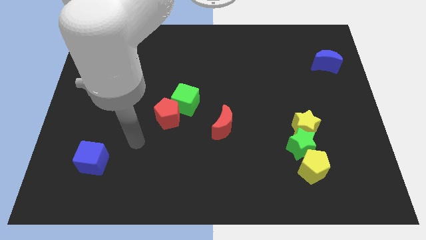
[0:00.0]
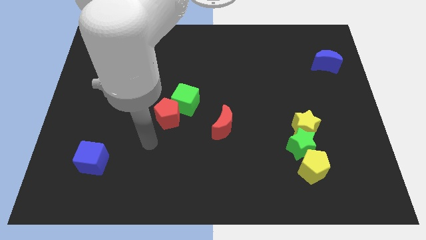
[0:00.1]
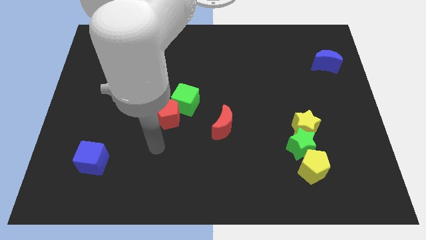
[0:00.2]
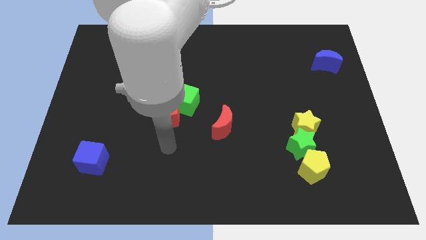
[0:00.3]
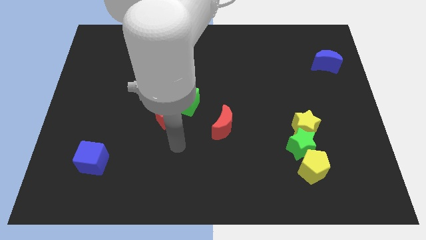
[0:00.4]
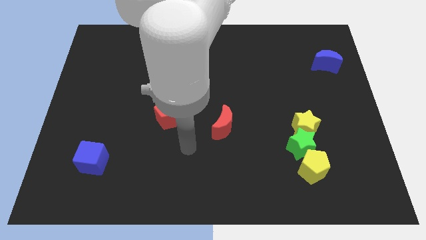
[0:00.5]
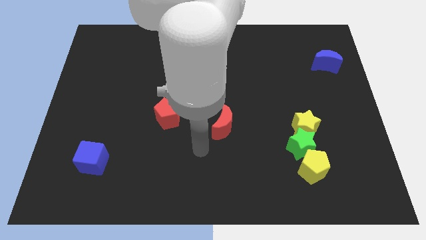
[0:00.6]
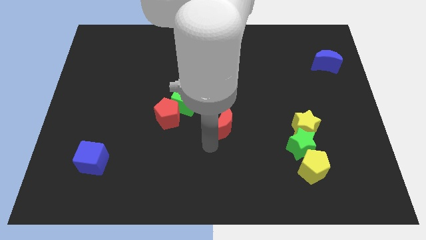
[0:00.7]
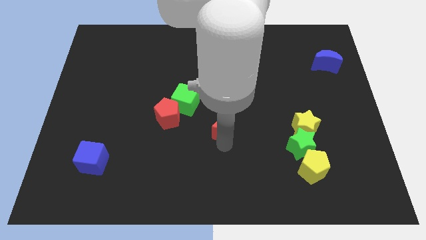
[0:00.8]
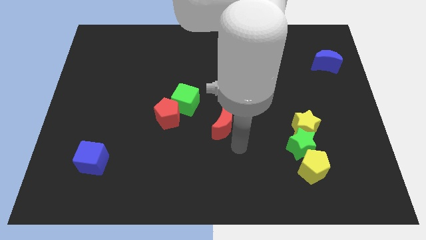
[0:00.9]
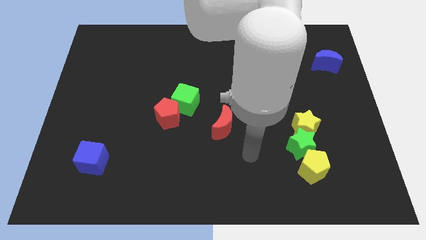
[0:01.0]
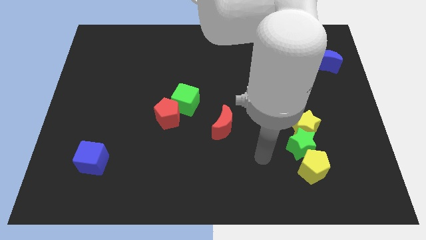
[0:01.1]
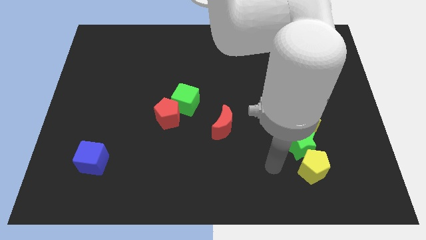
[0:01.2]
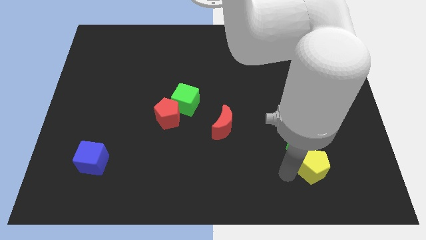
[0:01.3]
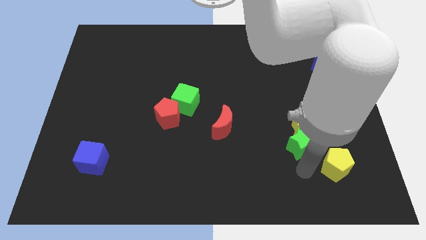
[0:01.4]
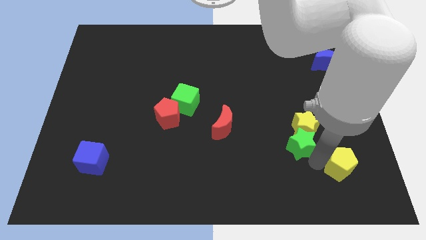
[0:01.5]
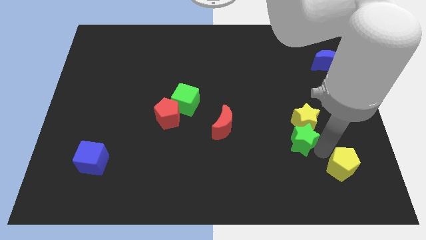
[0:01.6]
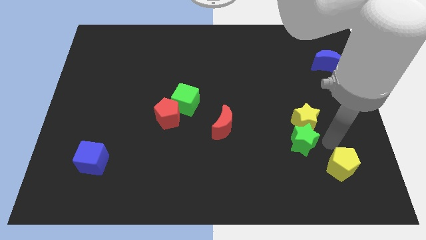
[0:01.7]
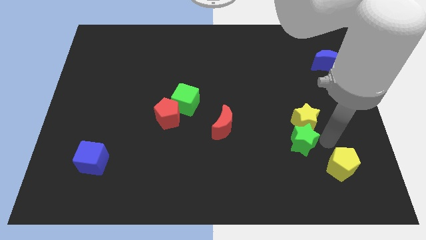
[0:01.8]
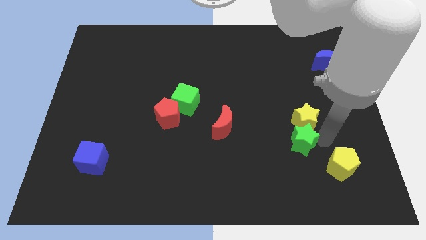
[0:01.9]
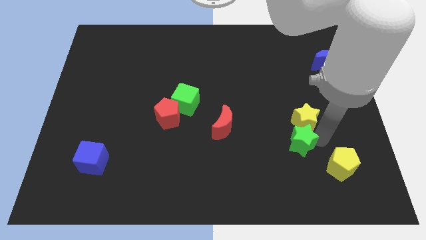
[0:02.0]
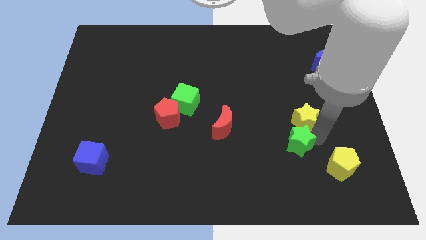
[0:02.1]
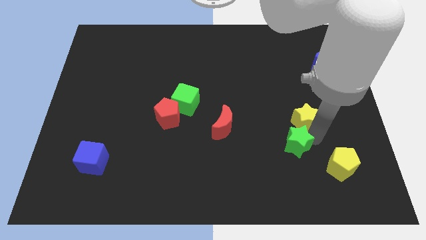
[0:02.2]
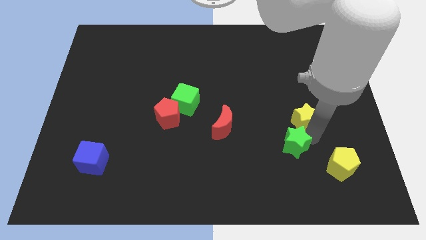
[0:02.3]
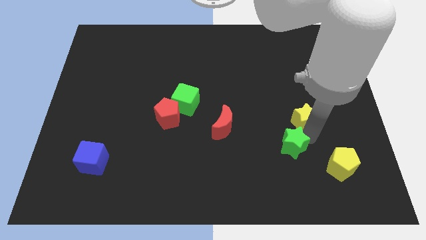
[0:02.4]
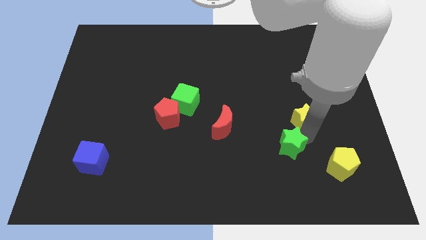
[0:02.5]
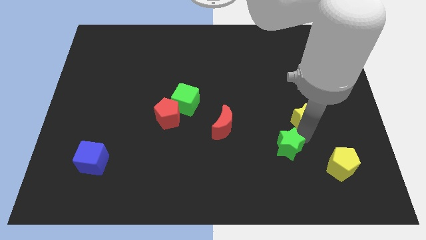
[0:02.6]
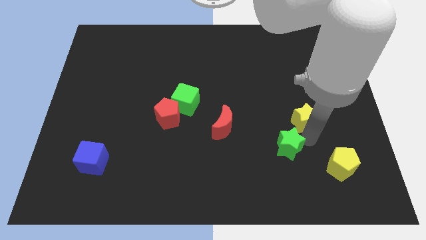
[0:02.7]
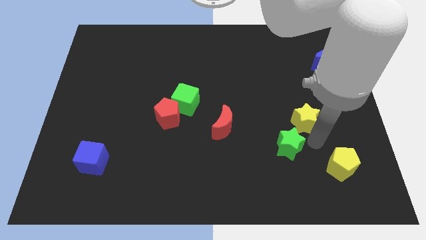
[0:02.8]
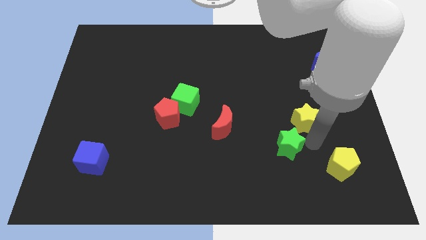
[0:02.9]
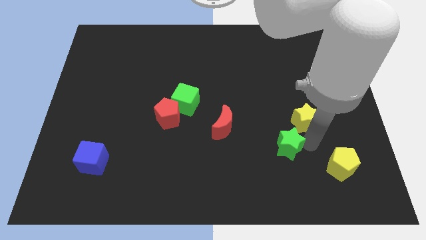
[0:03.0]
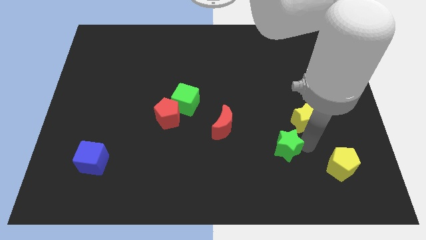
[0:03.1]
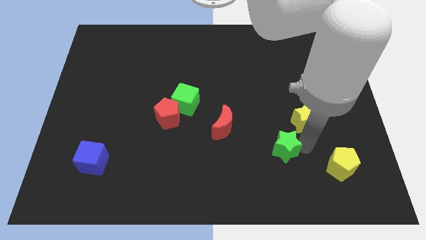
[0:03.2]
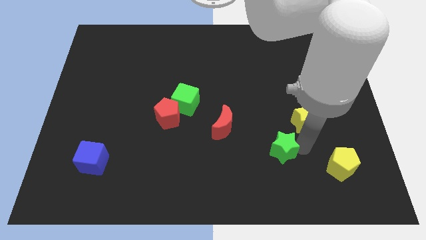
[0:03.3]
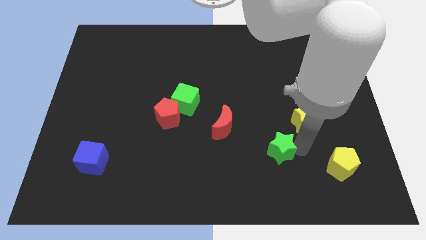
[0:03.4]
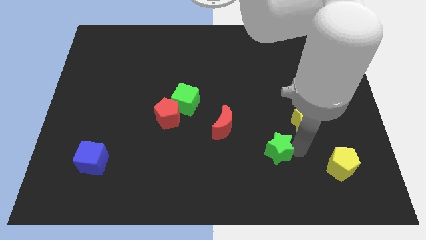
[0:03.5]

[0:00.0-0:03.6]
separate the green star from the yellow star and yellow pentagon

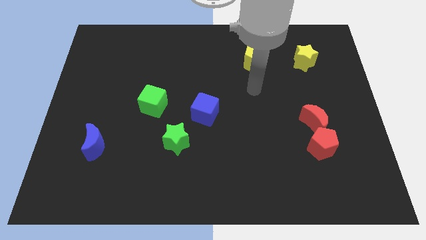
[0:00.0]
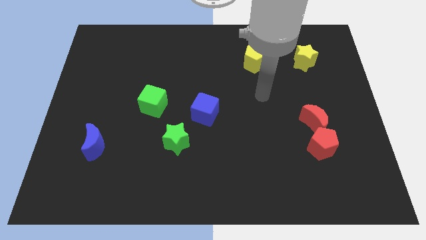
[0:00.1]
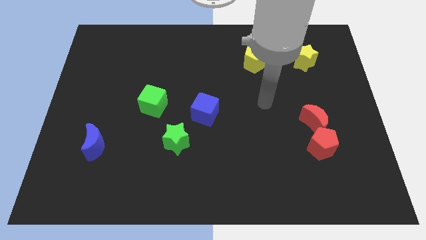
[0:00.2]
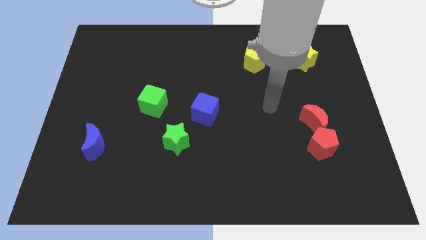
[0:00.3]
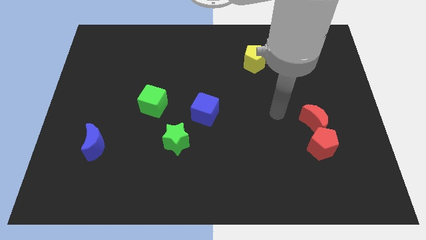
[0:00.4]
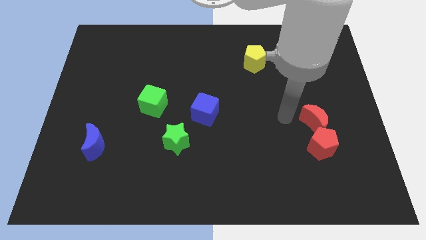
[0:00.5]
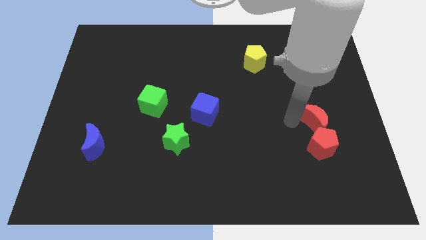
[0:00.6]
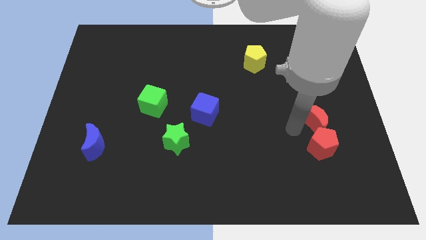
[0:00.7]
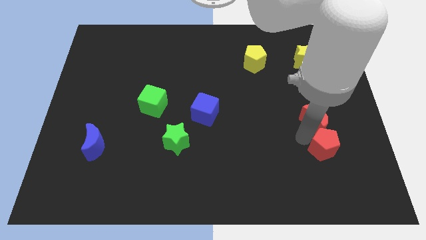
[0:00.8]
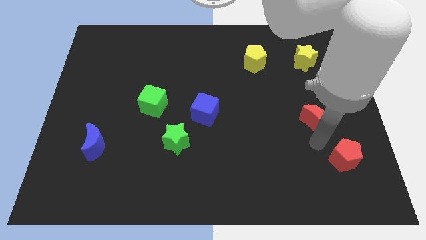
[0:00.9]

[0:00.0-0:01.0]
move the red moon away from the red pentagon

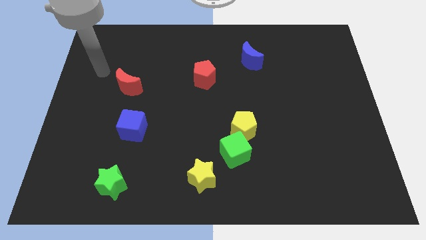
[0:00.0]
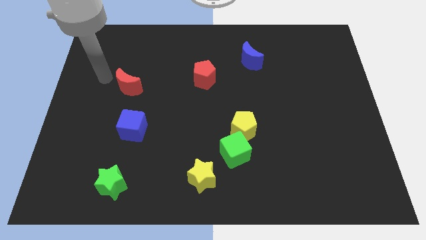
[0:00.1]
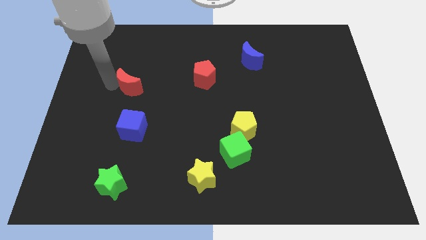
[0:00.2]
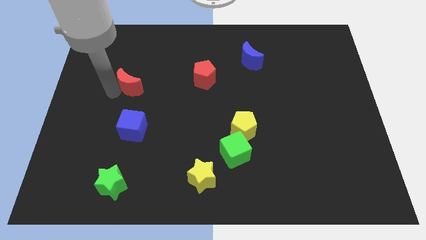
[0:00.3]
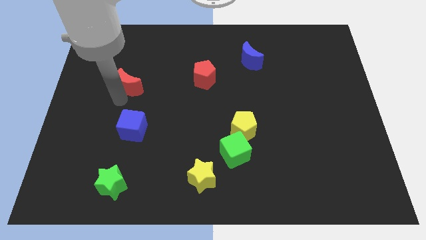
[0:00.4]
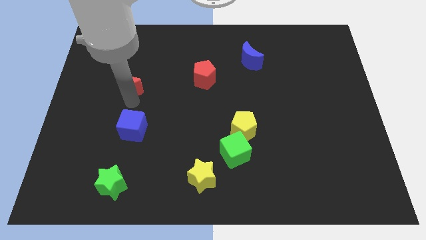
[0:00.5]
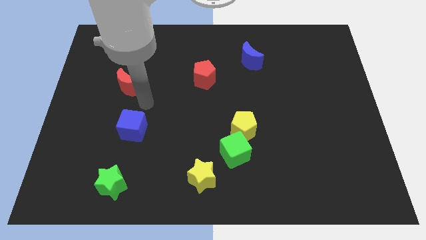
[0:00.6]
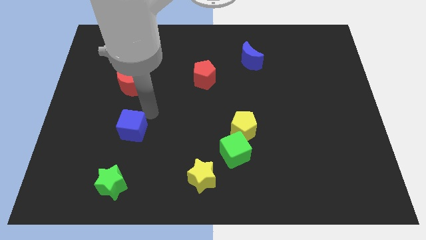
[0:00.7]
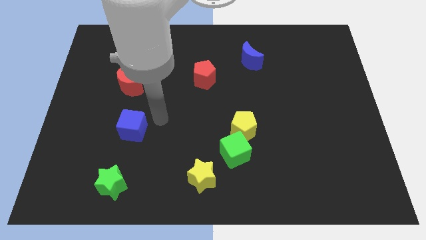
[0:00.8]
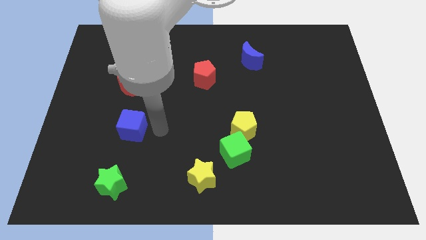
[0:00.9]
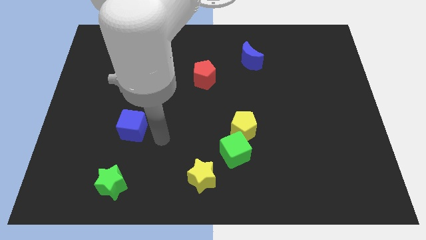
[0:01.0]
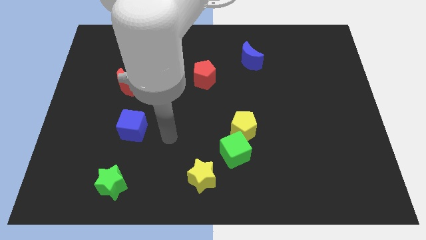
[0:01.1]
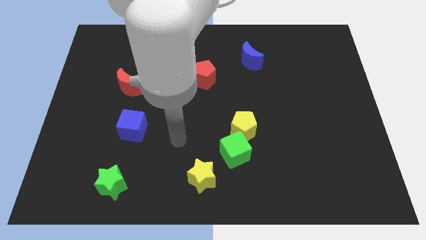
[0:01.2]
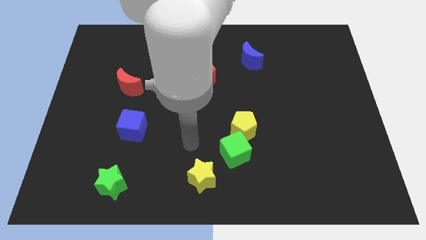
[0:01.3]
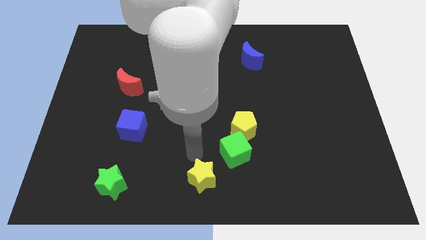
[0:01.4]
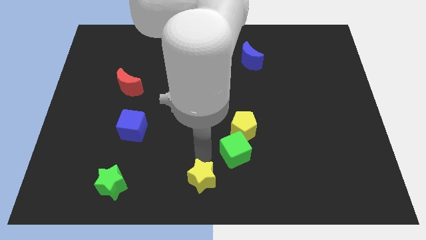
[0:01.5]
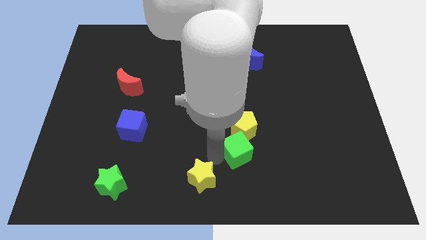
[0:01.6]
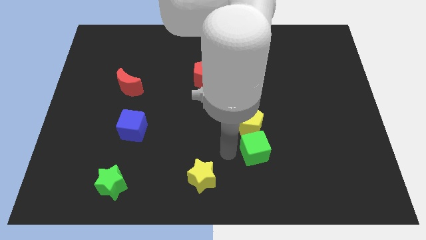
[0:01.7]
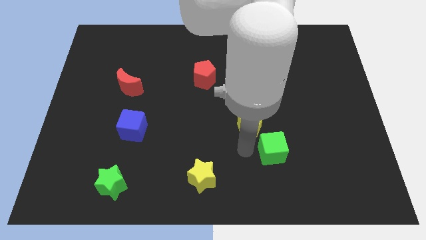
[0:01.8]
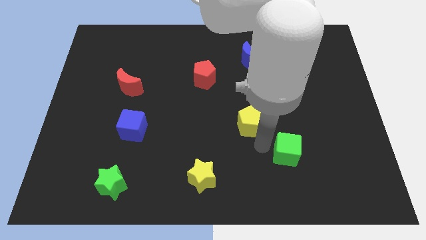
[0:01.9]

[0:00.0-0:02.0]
pull the yellow pentagon apart from the green cube

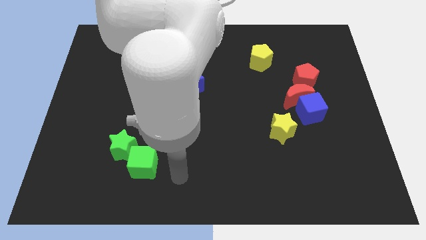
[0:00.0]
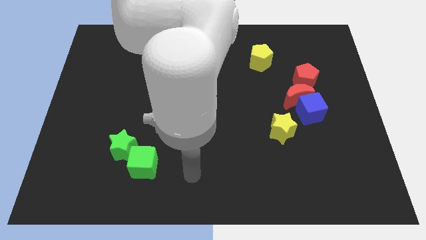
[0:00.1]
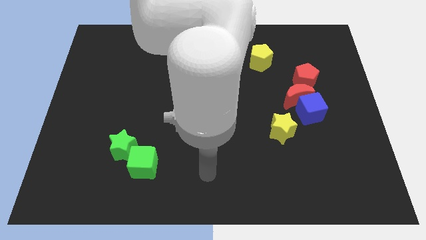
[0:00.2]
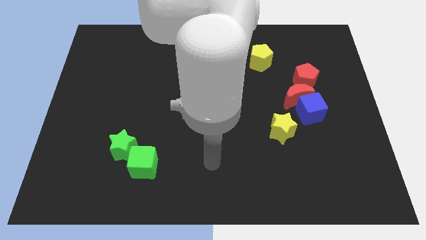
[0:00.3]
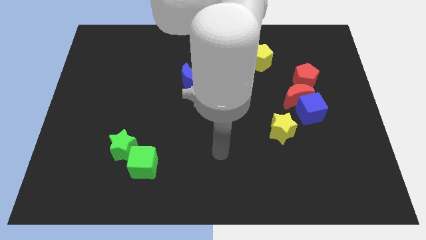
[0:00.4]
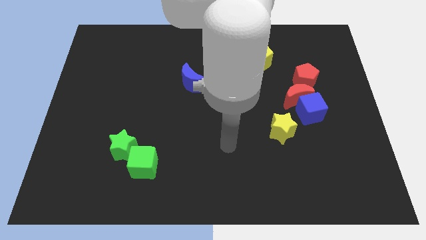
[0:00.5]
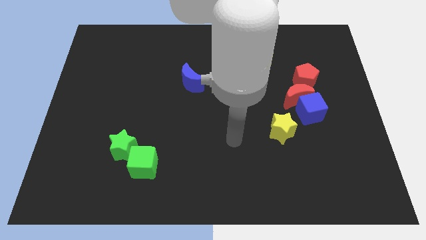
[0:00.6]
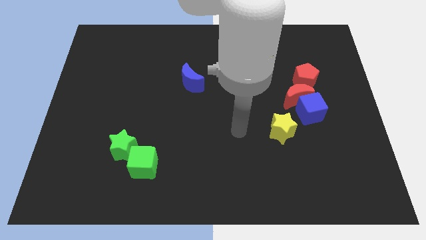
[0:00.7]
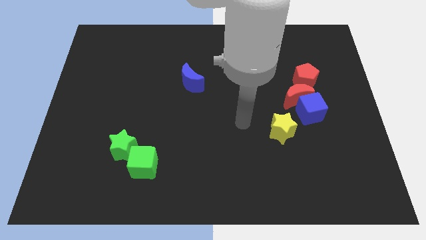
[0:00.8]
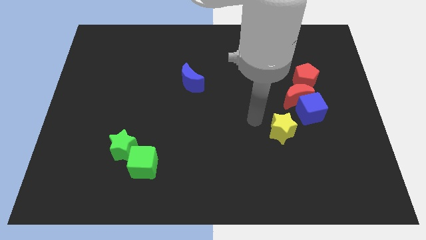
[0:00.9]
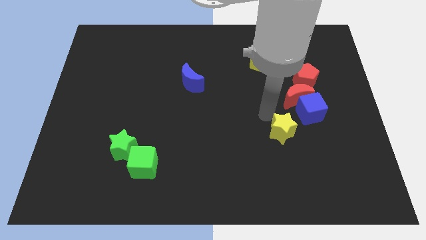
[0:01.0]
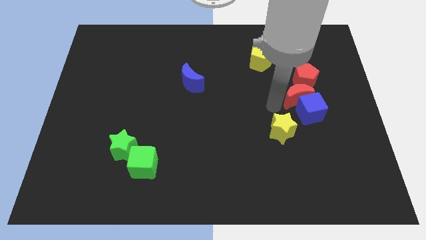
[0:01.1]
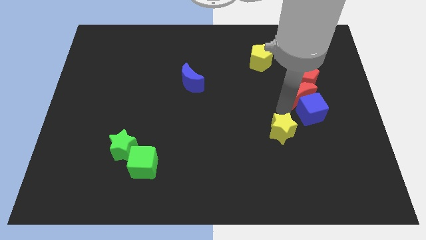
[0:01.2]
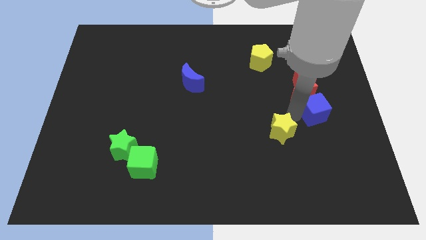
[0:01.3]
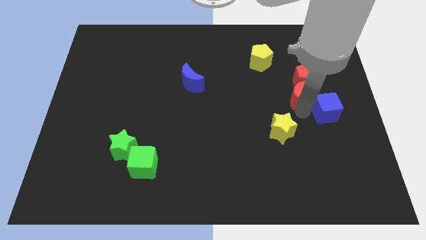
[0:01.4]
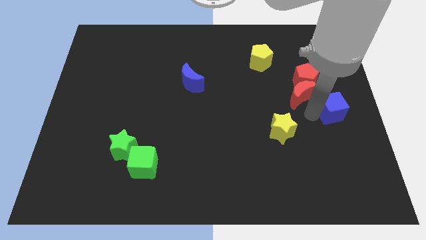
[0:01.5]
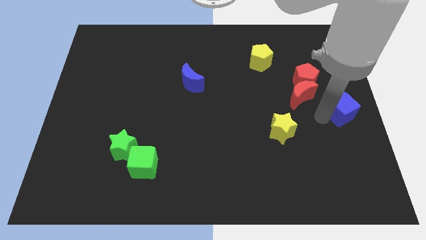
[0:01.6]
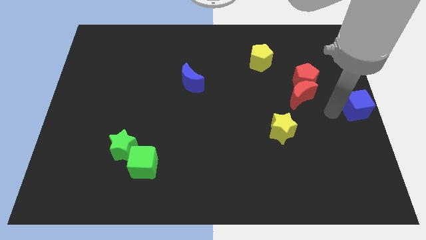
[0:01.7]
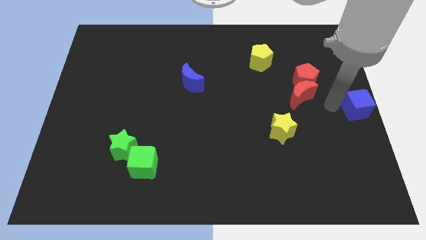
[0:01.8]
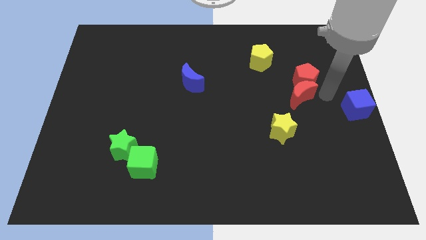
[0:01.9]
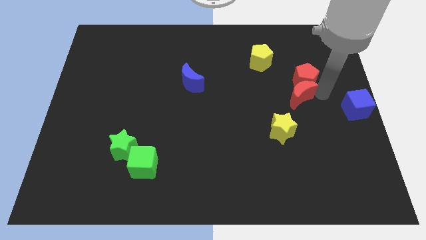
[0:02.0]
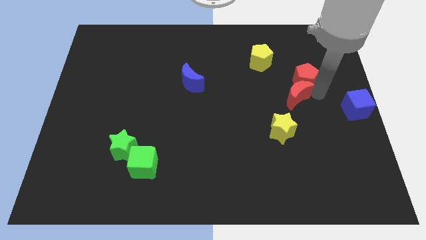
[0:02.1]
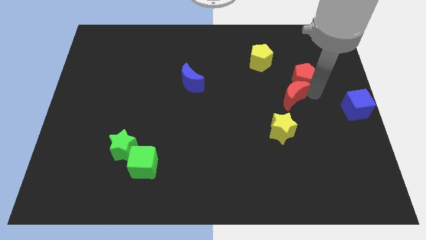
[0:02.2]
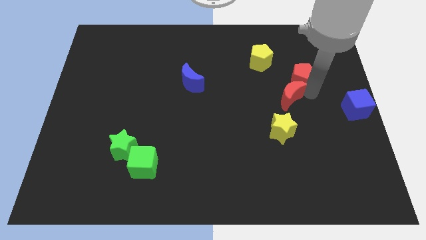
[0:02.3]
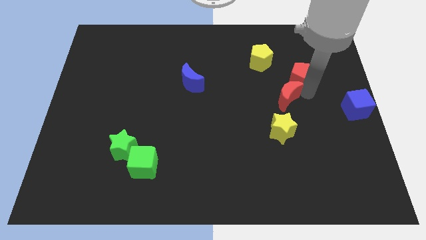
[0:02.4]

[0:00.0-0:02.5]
separate the red moon from the blue cube and red pentagon

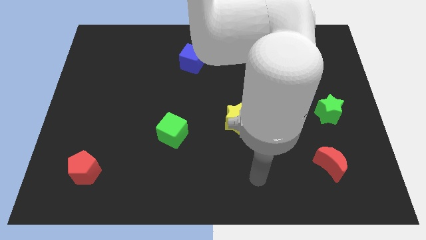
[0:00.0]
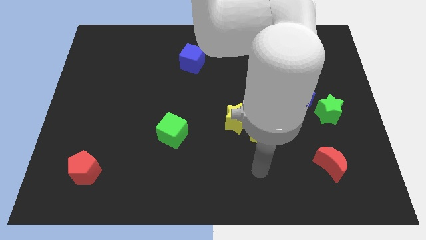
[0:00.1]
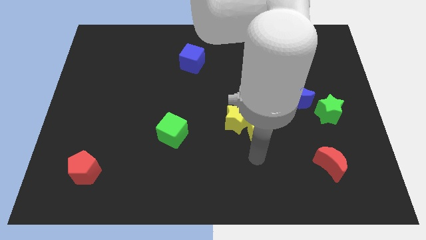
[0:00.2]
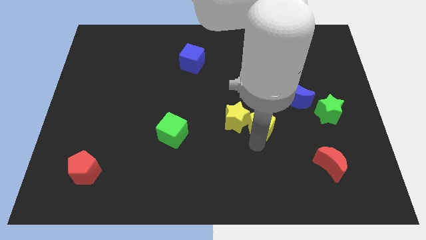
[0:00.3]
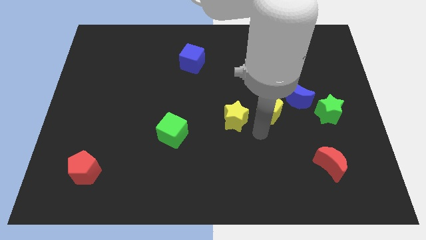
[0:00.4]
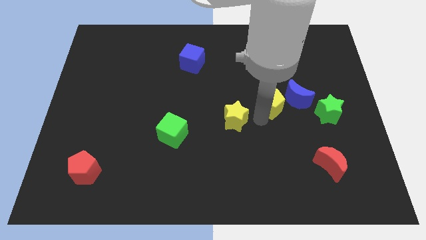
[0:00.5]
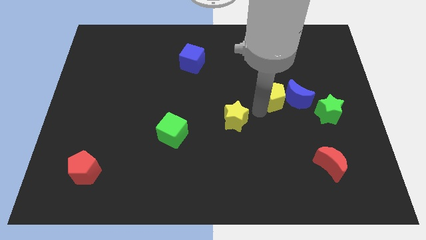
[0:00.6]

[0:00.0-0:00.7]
pull the yellow star apart from the yellow pentagon
